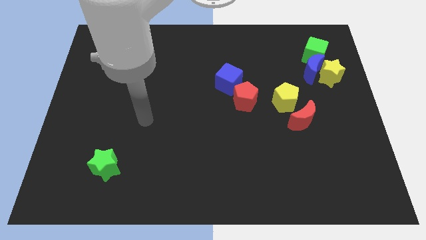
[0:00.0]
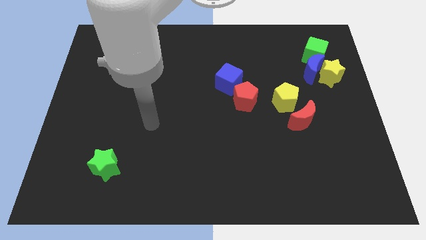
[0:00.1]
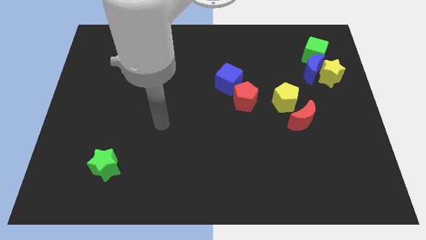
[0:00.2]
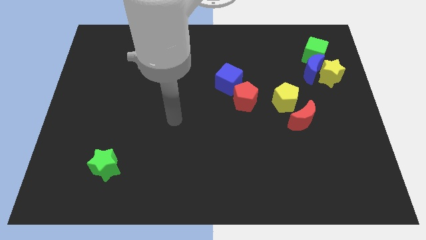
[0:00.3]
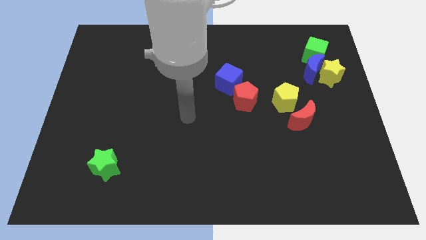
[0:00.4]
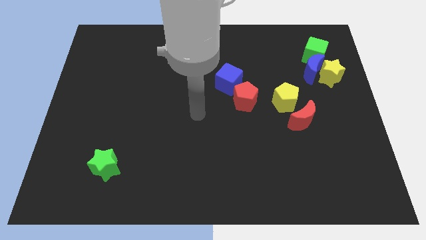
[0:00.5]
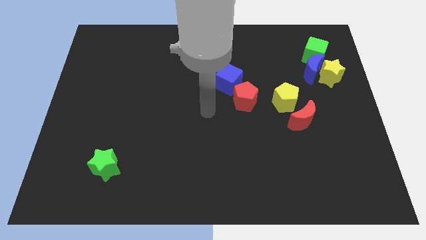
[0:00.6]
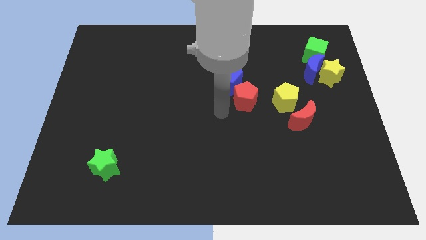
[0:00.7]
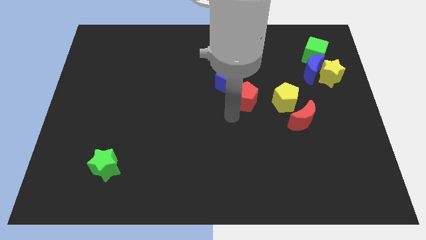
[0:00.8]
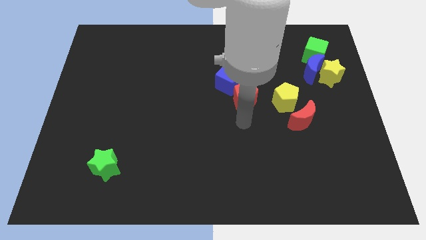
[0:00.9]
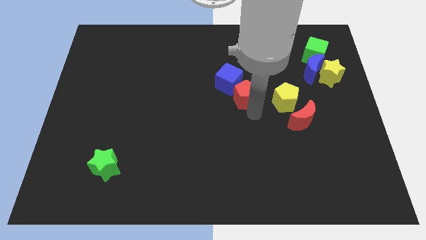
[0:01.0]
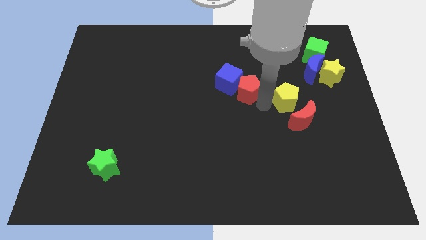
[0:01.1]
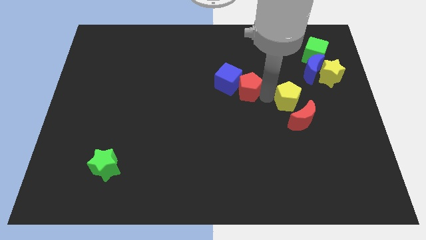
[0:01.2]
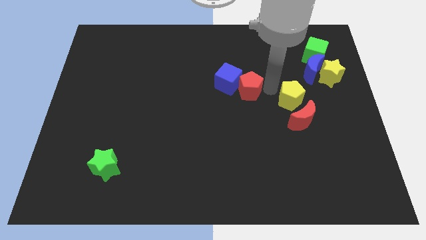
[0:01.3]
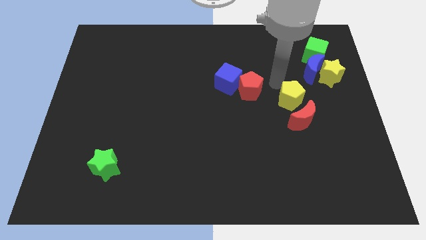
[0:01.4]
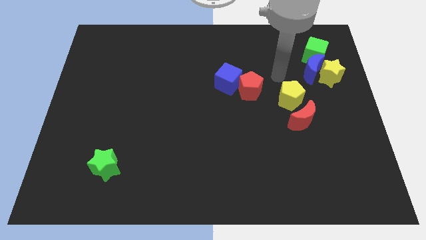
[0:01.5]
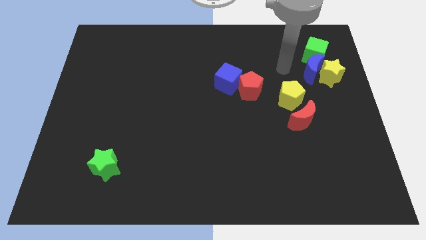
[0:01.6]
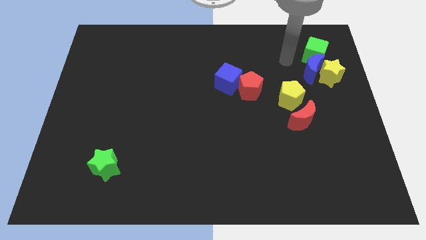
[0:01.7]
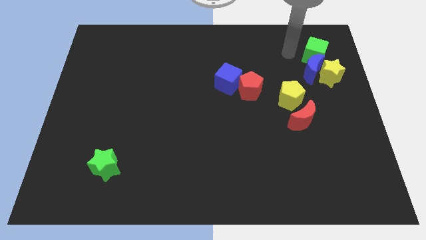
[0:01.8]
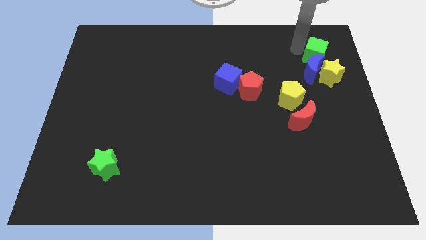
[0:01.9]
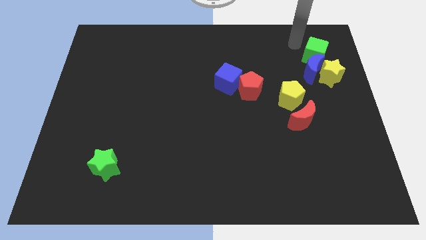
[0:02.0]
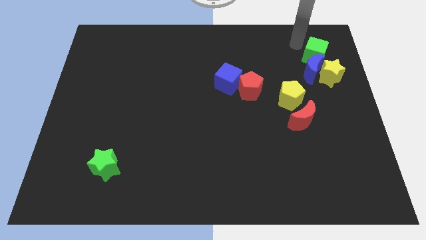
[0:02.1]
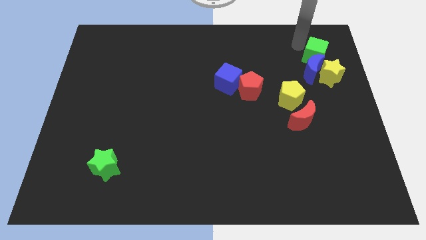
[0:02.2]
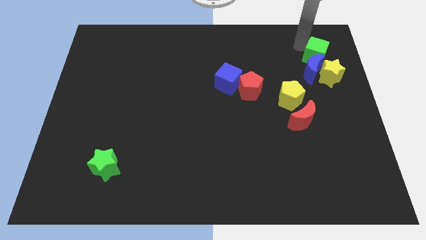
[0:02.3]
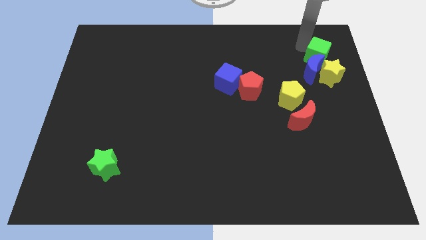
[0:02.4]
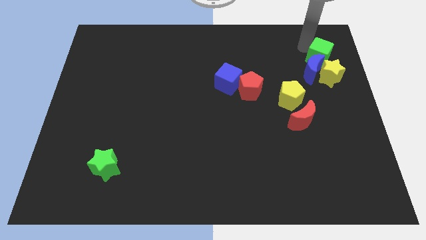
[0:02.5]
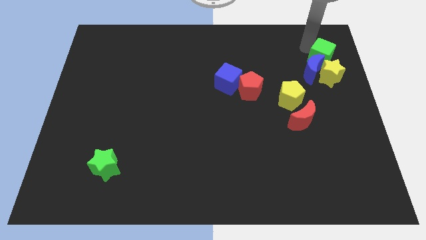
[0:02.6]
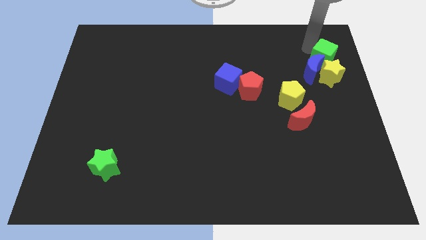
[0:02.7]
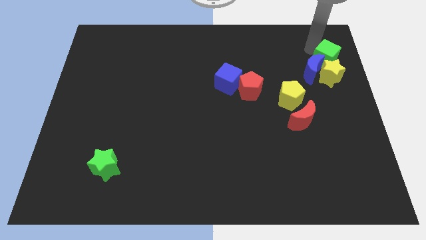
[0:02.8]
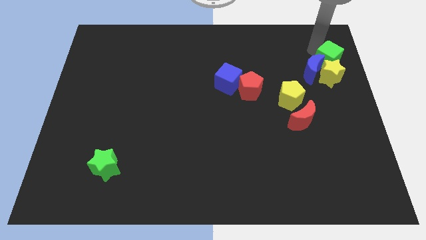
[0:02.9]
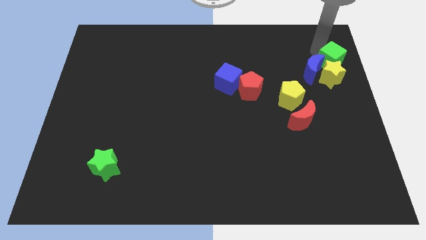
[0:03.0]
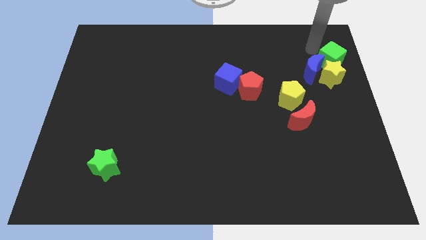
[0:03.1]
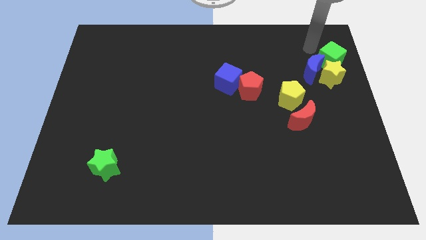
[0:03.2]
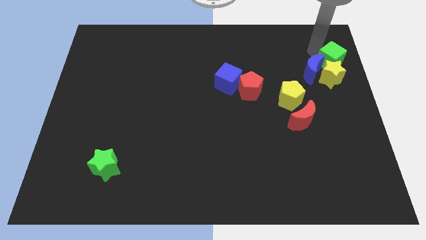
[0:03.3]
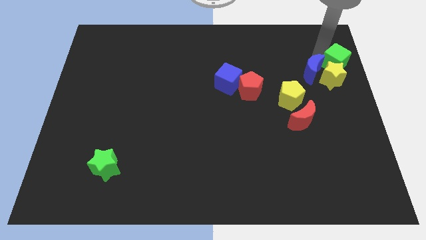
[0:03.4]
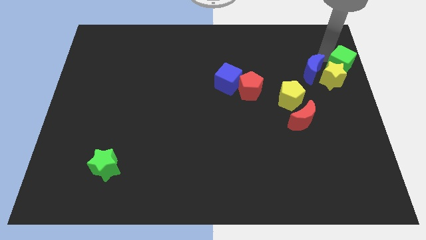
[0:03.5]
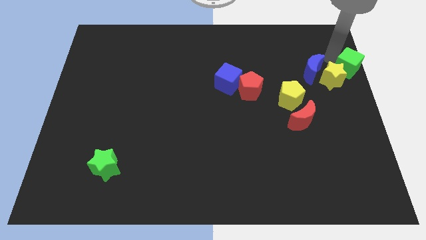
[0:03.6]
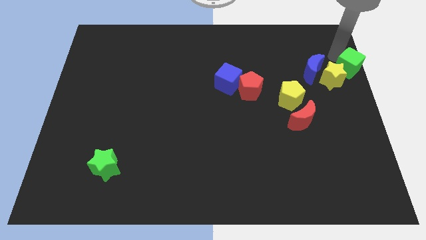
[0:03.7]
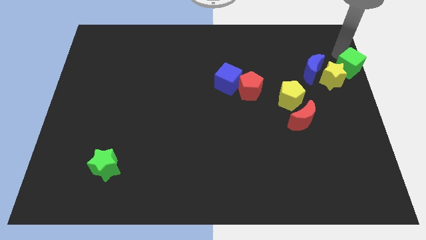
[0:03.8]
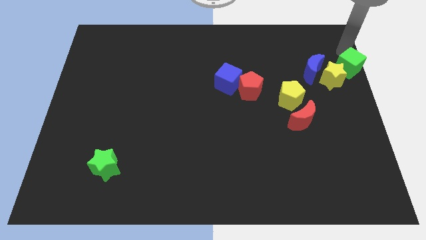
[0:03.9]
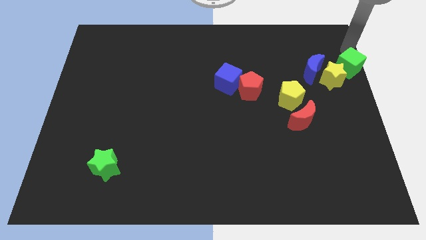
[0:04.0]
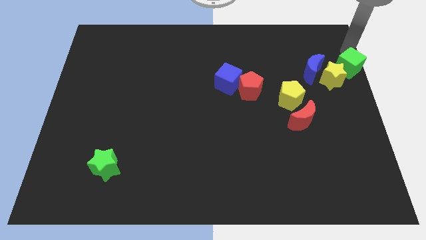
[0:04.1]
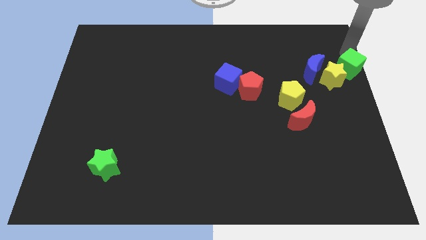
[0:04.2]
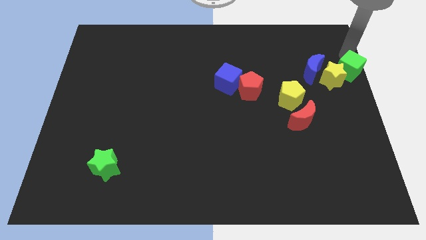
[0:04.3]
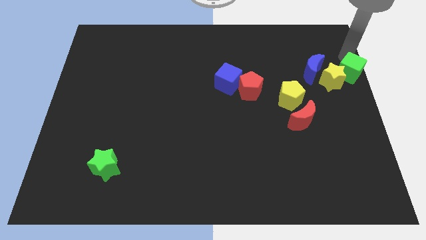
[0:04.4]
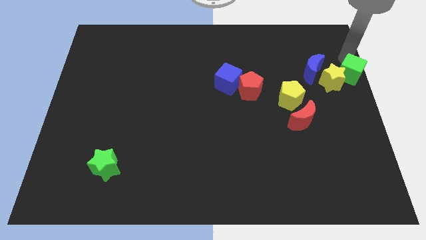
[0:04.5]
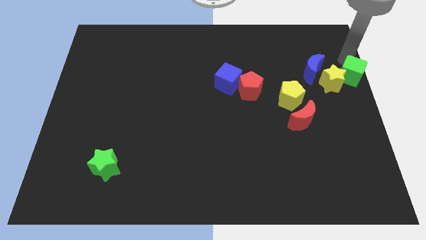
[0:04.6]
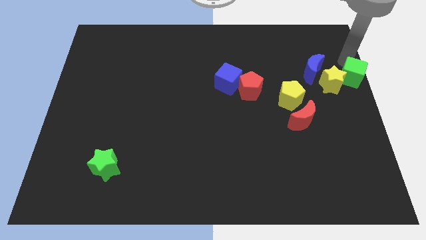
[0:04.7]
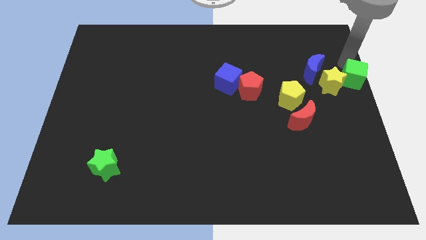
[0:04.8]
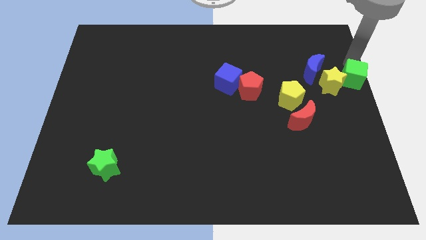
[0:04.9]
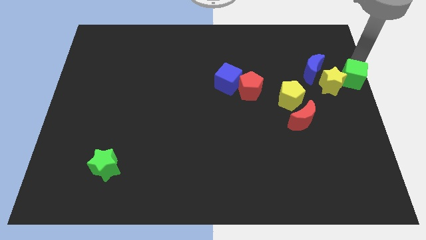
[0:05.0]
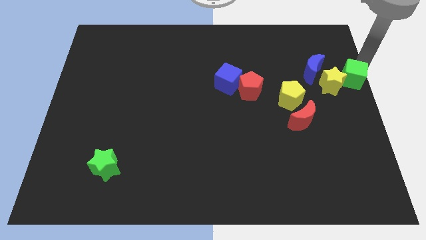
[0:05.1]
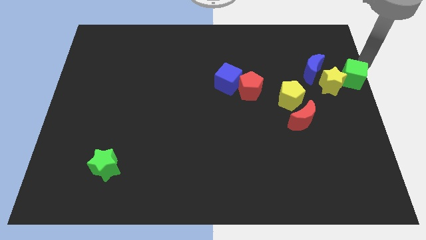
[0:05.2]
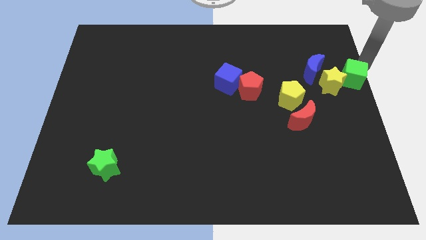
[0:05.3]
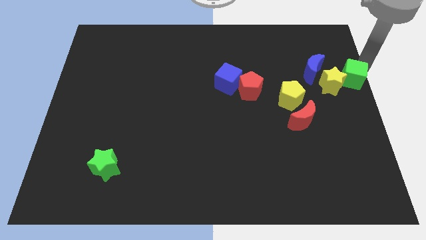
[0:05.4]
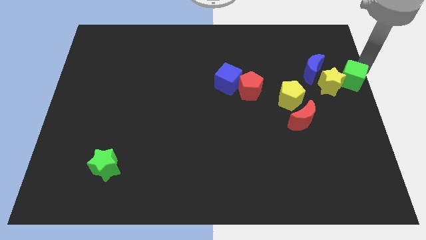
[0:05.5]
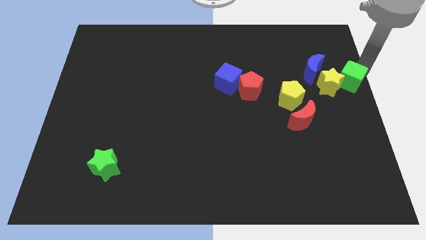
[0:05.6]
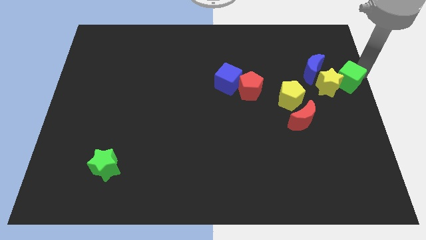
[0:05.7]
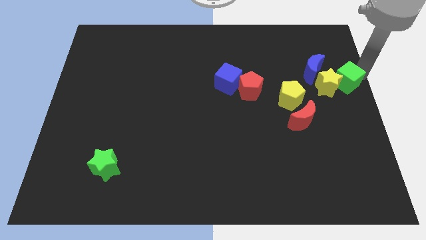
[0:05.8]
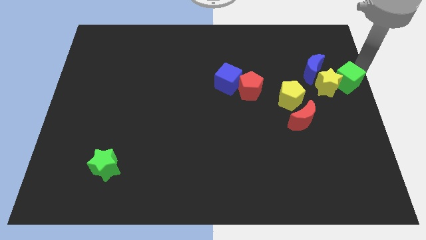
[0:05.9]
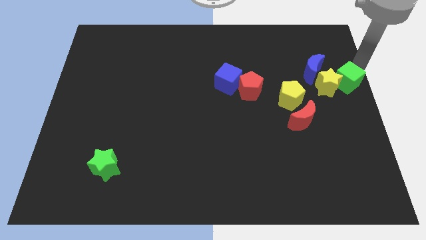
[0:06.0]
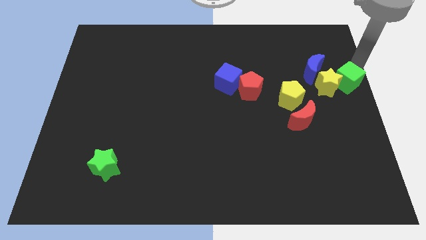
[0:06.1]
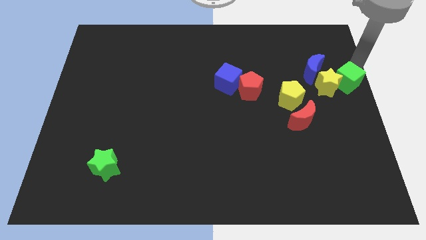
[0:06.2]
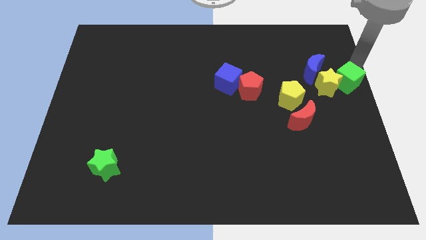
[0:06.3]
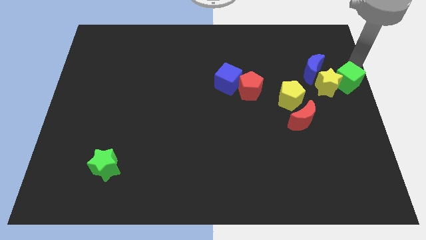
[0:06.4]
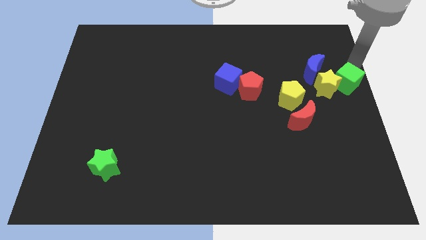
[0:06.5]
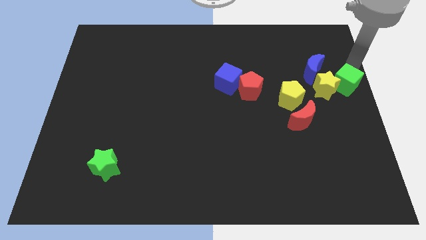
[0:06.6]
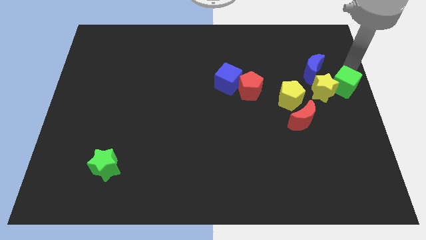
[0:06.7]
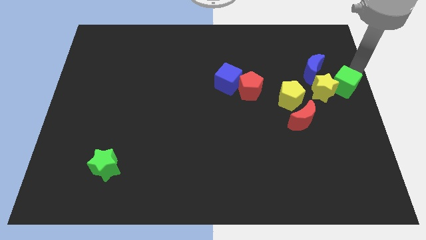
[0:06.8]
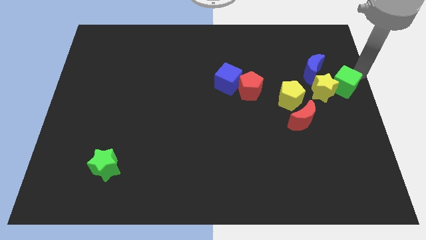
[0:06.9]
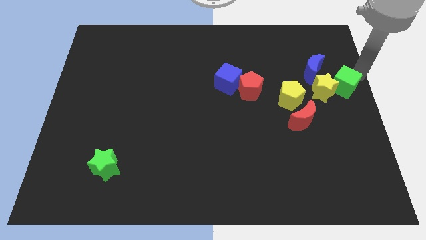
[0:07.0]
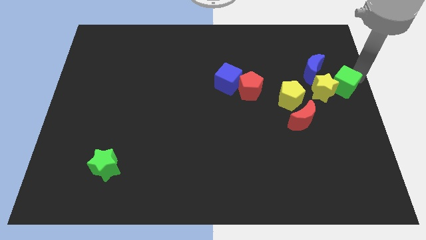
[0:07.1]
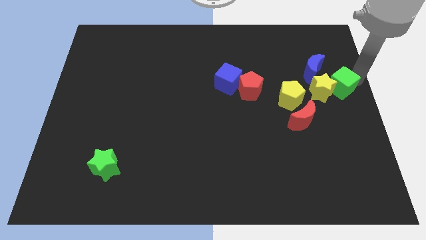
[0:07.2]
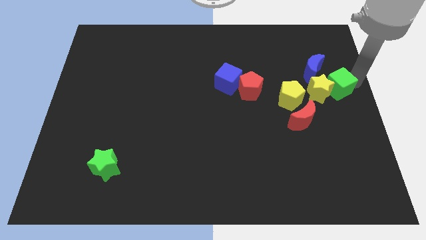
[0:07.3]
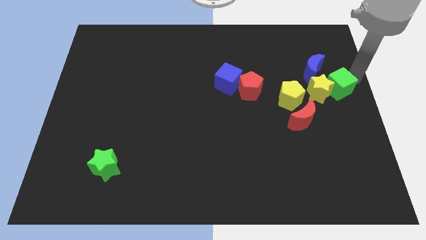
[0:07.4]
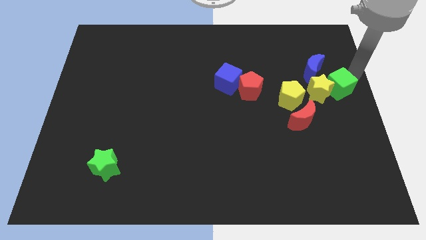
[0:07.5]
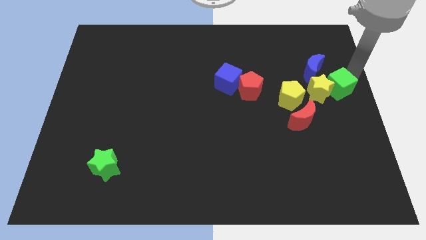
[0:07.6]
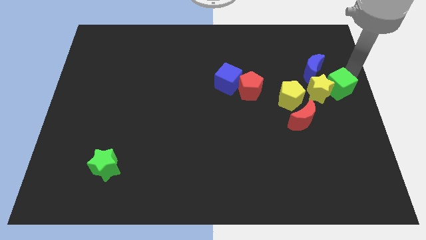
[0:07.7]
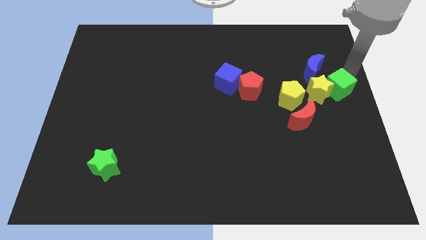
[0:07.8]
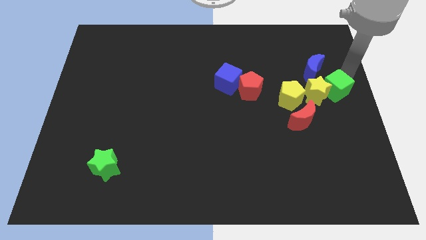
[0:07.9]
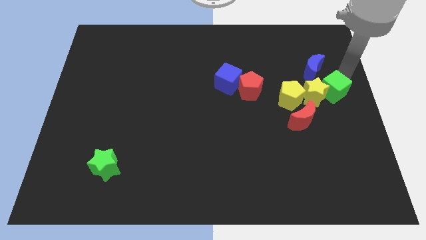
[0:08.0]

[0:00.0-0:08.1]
move the green cube diagonally up and to the right of the red moon
